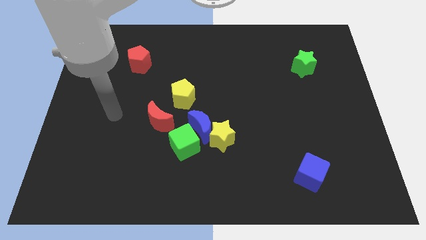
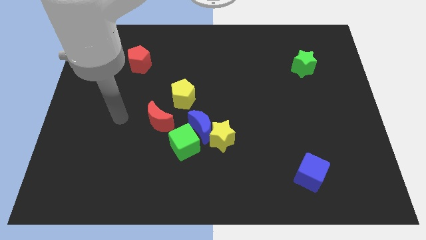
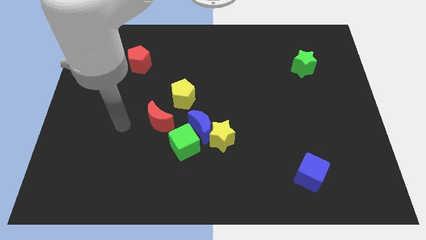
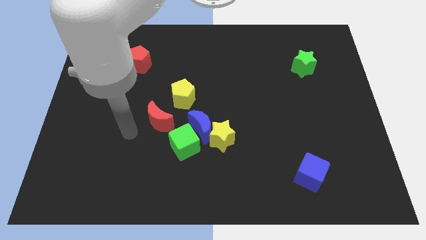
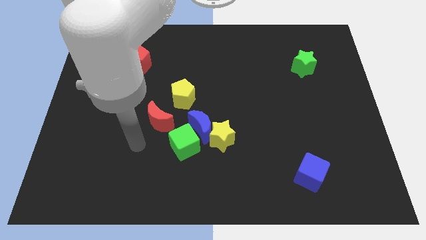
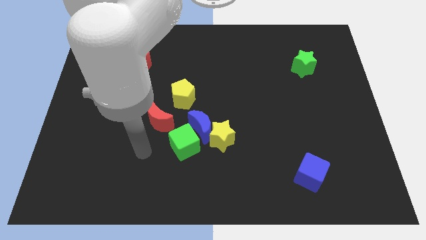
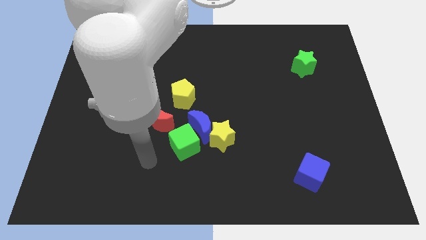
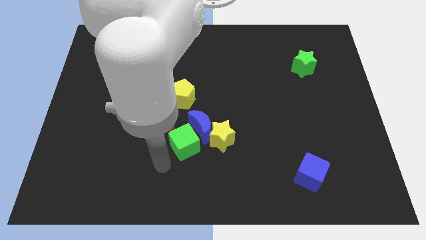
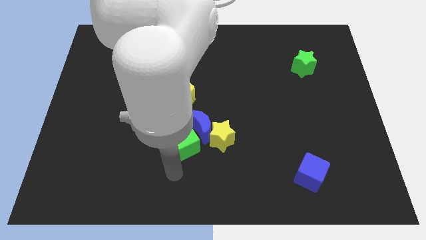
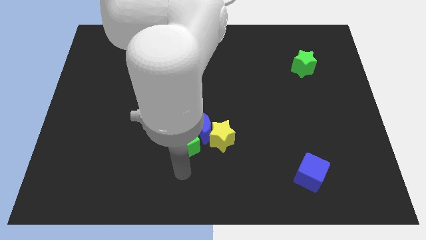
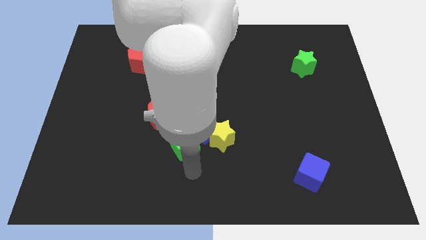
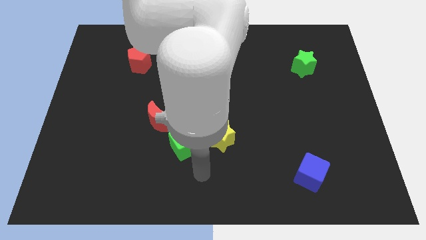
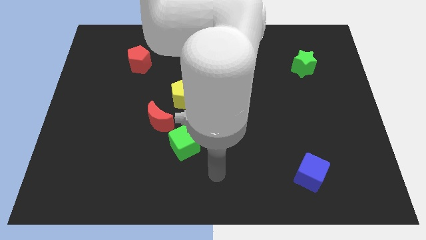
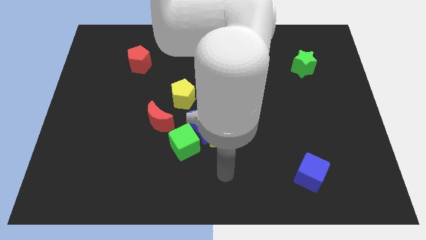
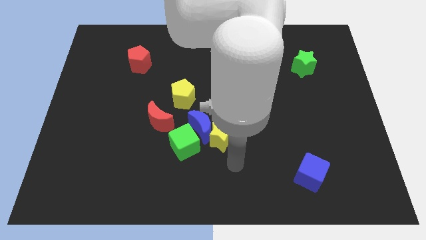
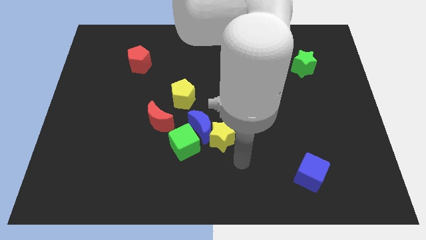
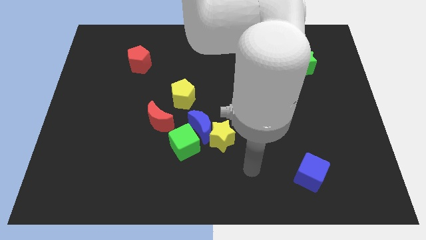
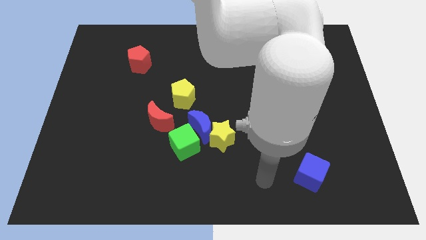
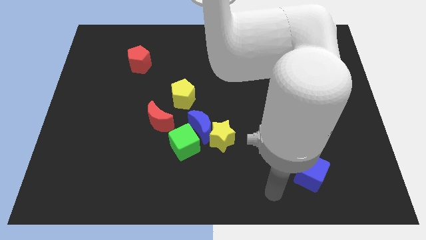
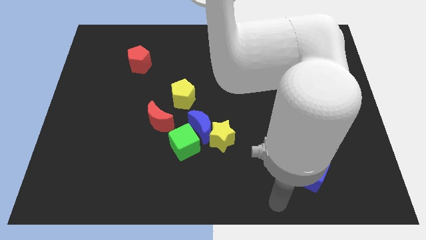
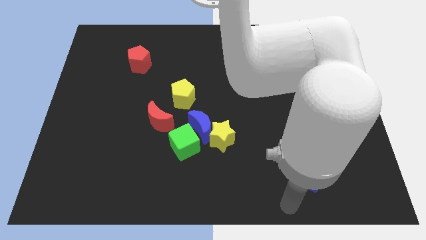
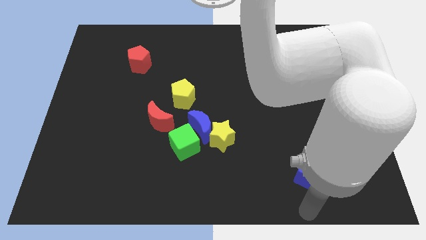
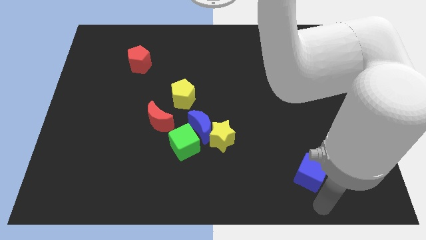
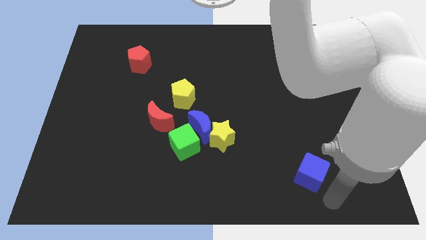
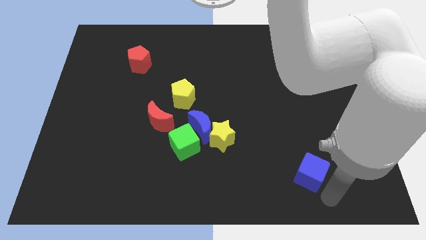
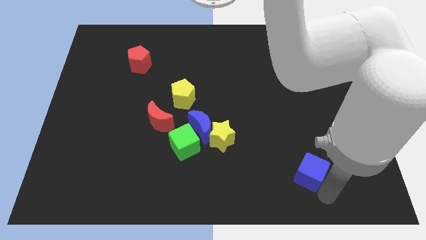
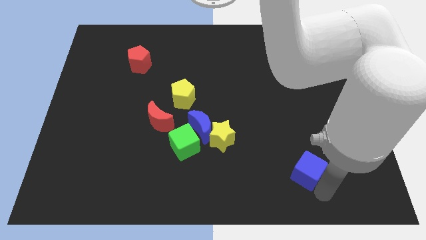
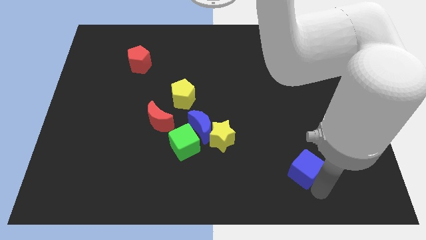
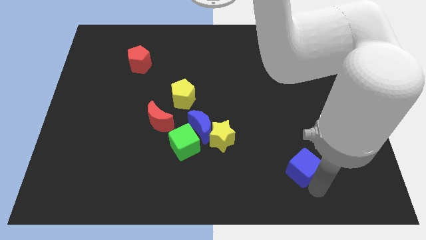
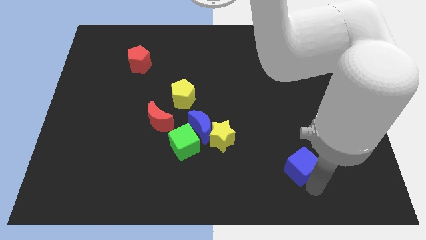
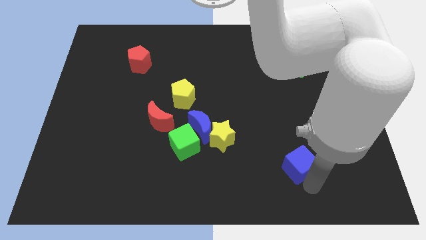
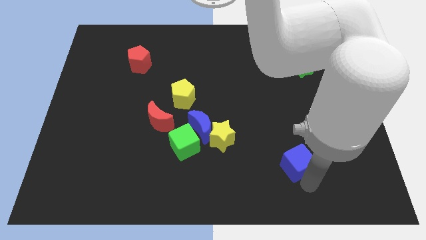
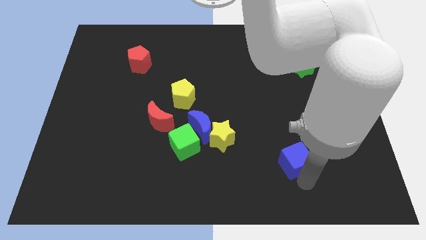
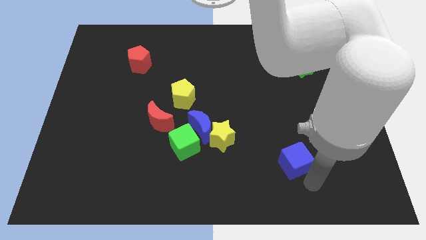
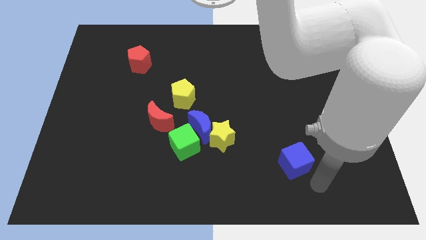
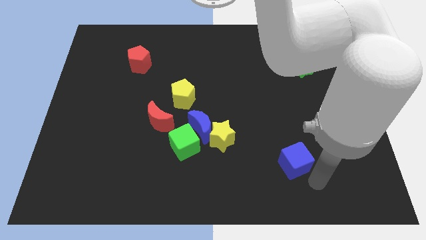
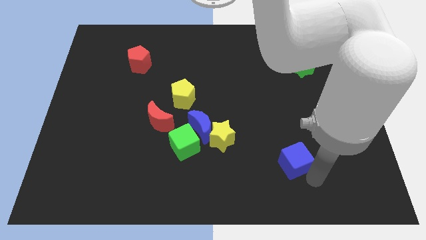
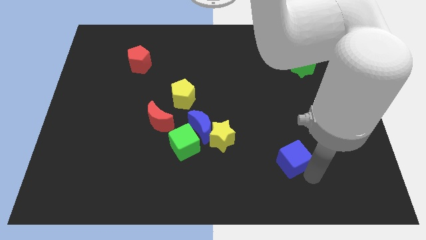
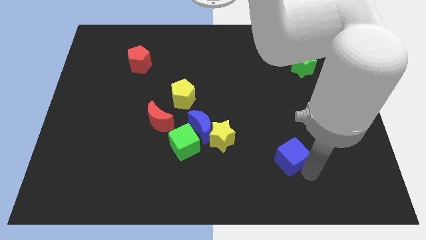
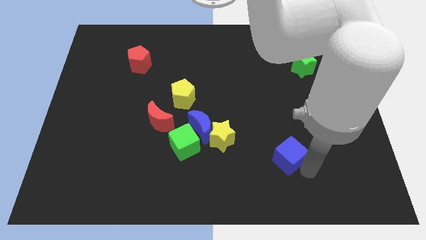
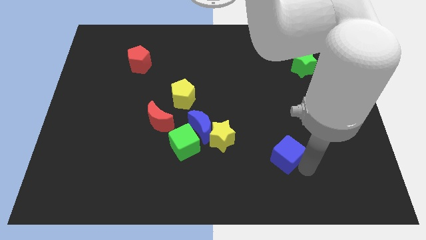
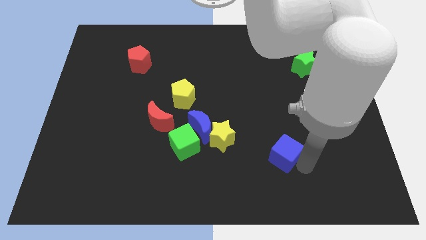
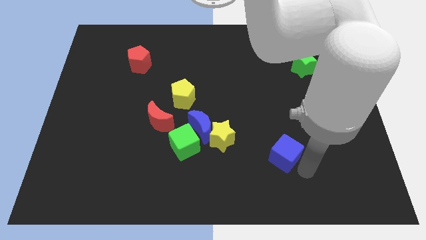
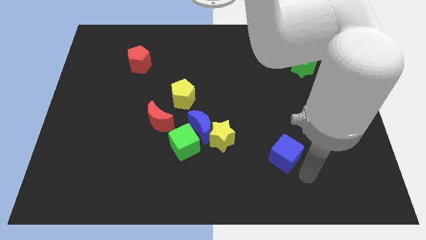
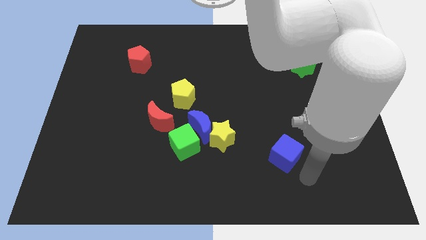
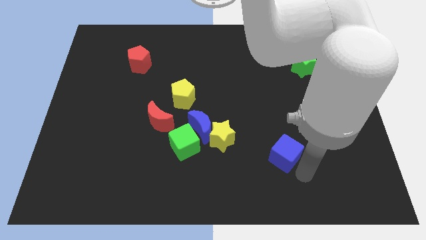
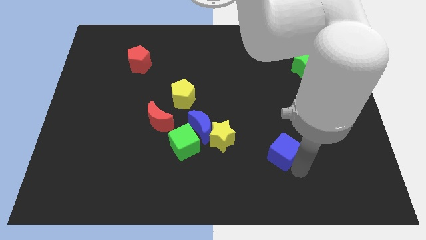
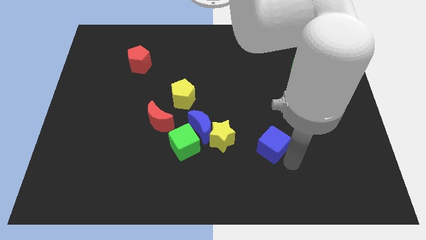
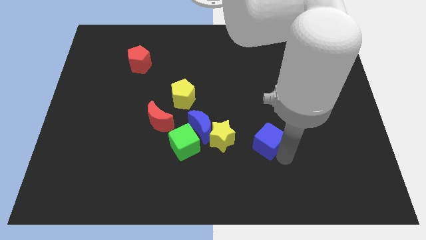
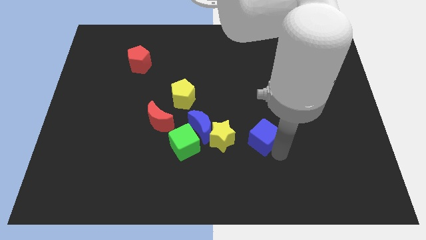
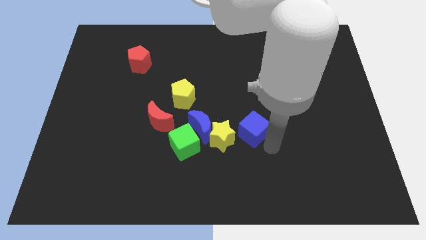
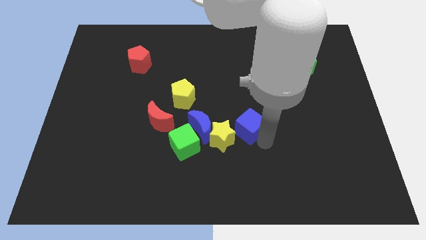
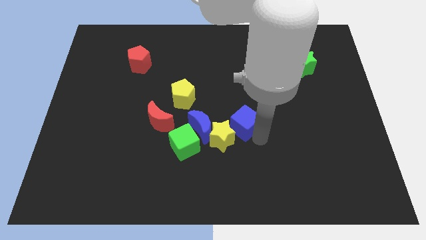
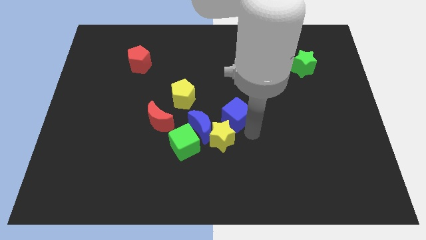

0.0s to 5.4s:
move the blue cube to the top of the yellow star

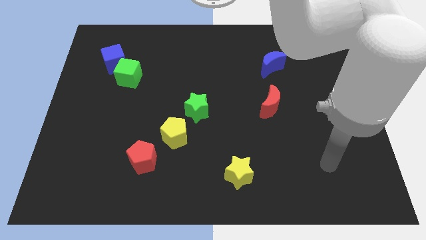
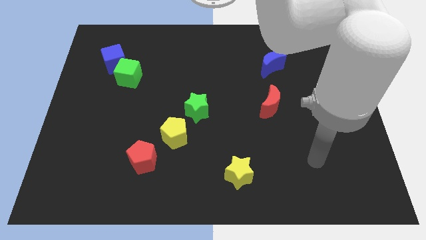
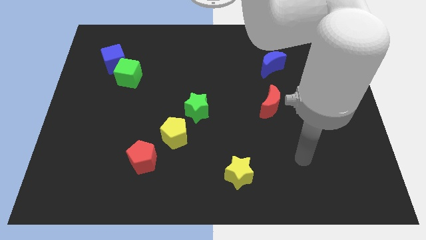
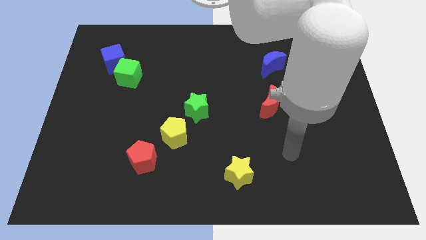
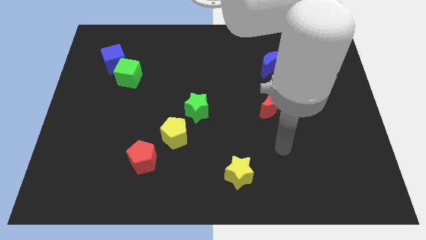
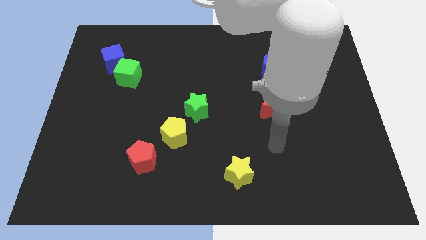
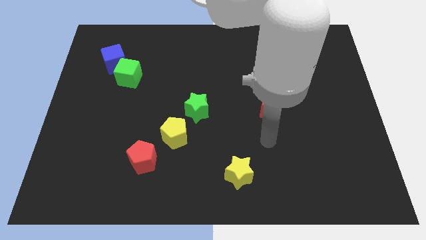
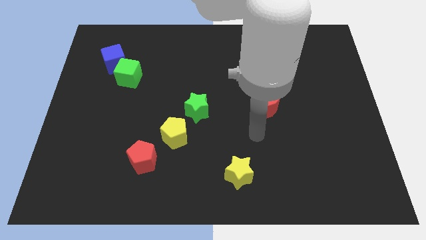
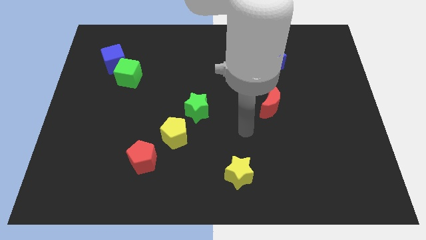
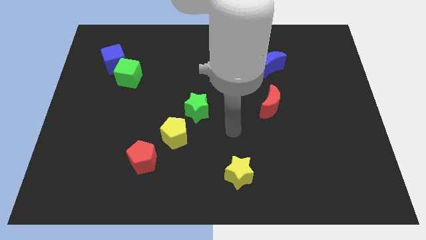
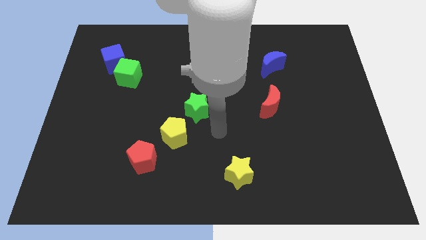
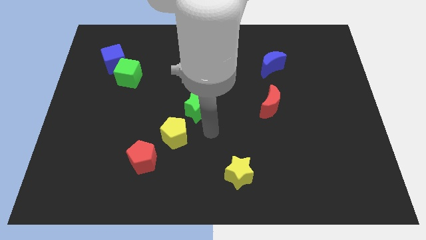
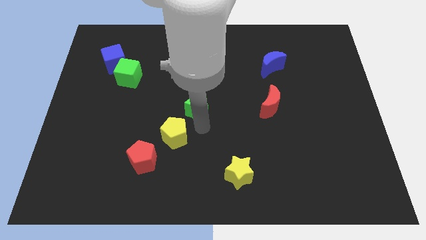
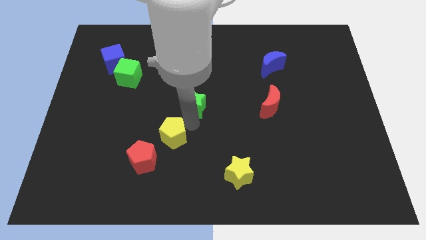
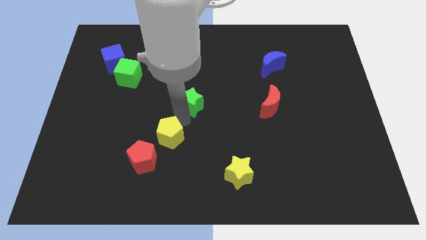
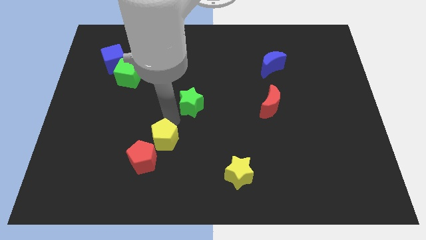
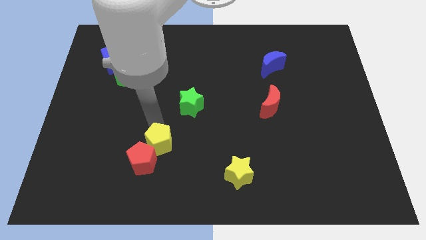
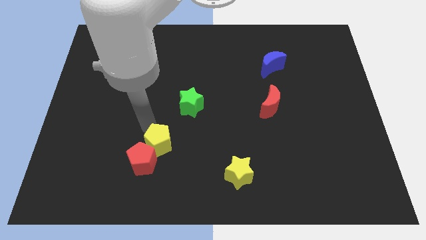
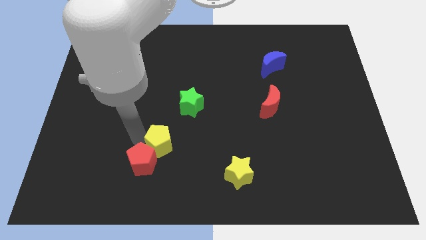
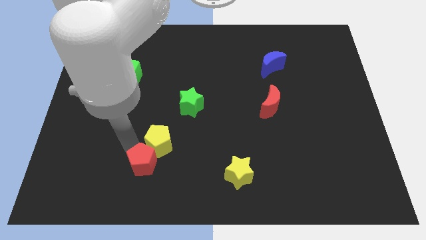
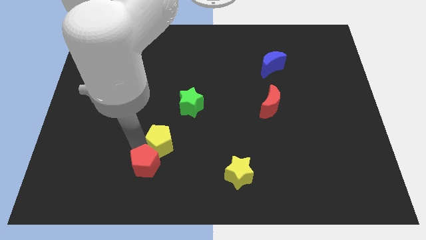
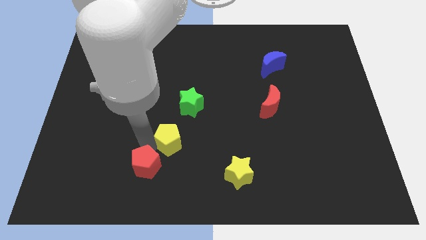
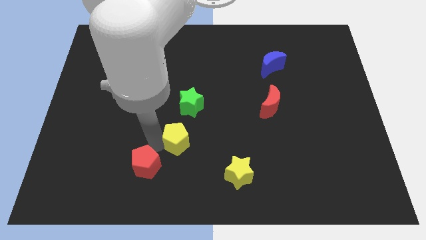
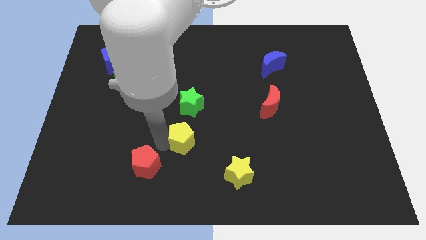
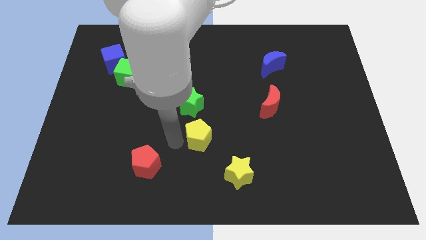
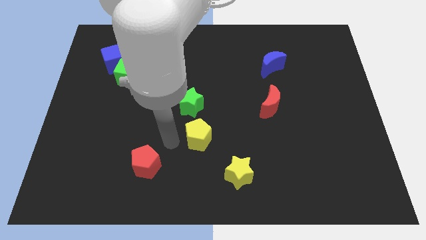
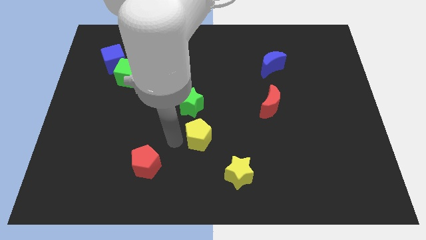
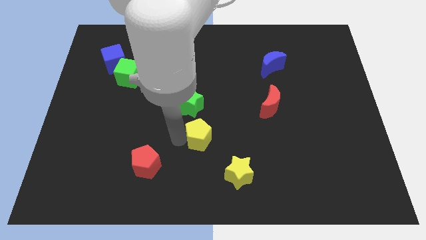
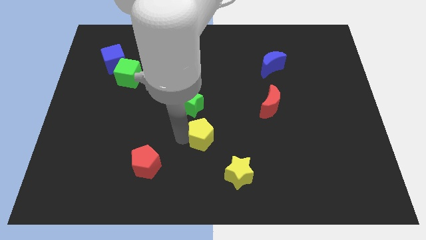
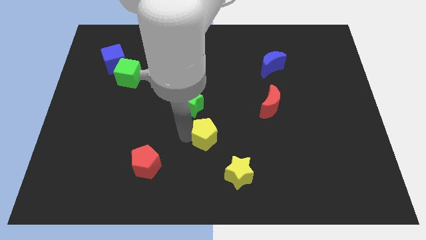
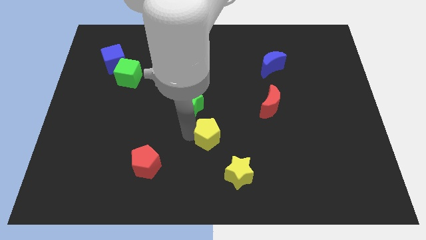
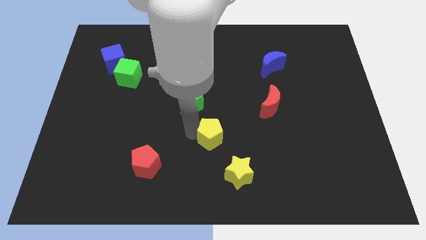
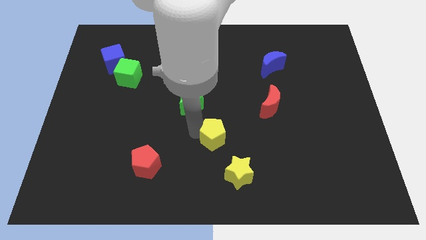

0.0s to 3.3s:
slide the yellow pentagon to the top side of the yellow star
